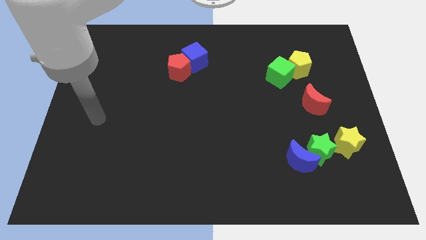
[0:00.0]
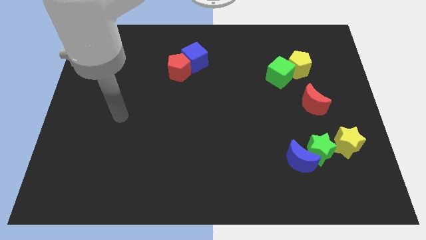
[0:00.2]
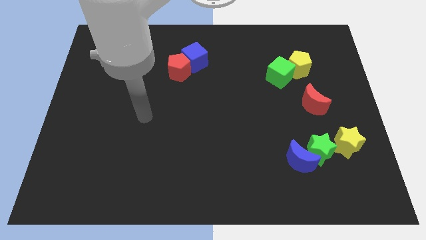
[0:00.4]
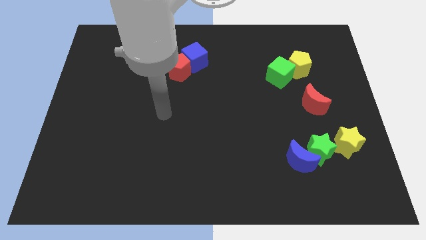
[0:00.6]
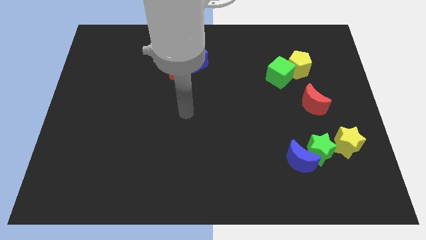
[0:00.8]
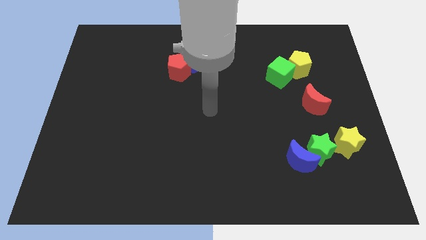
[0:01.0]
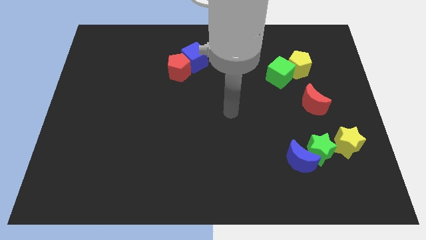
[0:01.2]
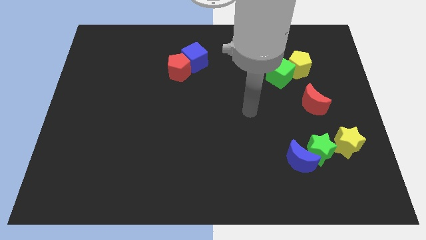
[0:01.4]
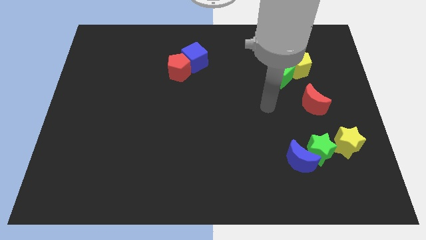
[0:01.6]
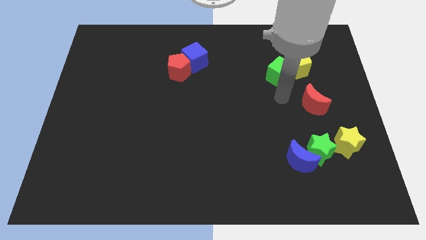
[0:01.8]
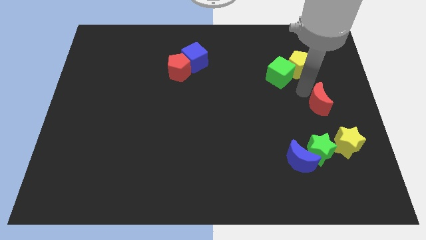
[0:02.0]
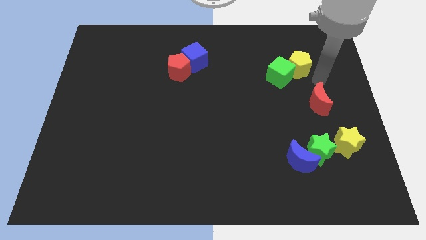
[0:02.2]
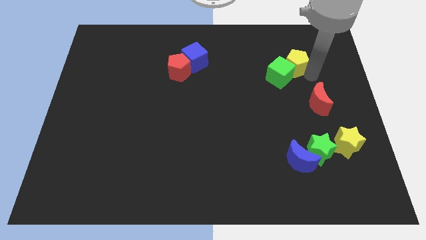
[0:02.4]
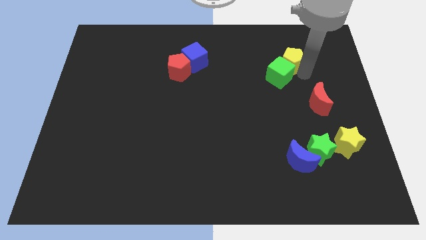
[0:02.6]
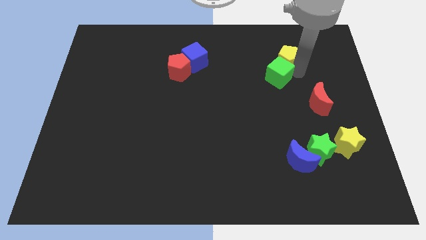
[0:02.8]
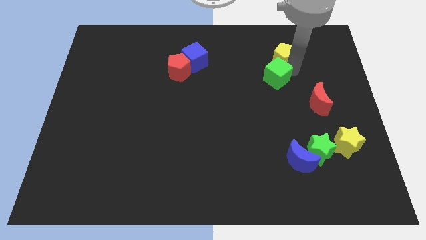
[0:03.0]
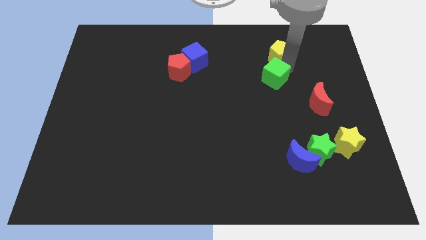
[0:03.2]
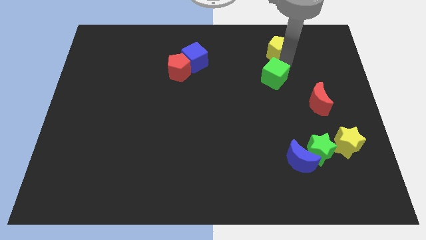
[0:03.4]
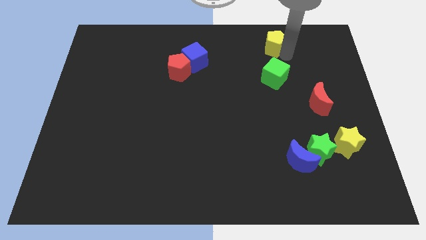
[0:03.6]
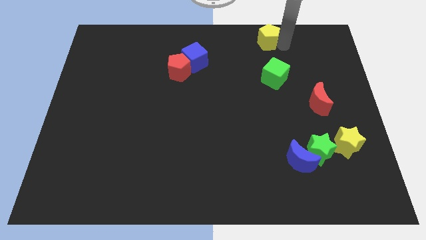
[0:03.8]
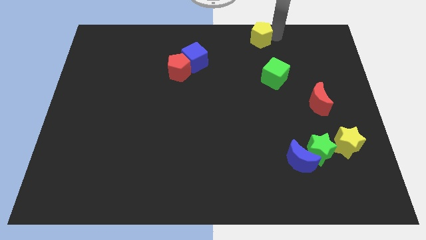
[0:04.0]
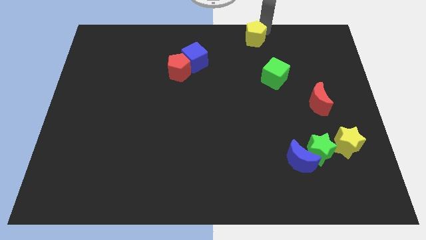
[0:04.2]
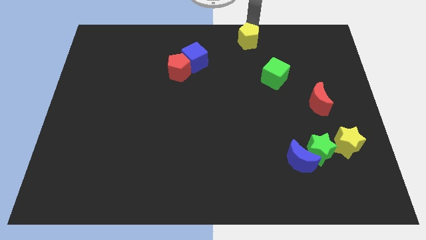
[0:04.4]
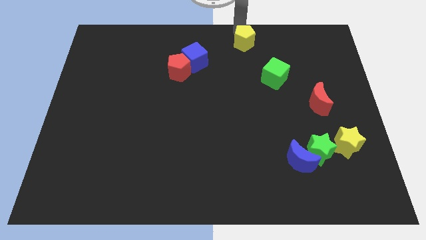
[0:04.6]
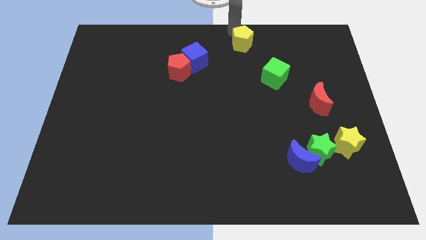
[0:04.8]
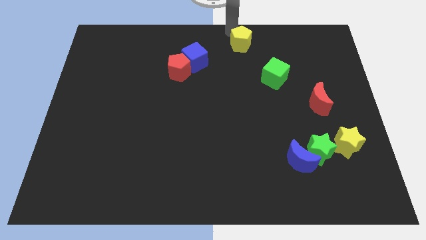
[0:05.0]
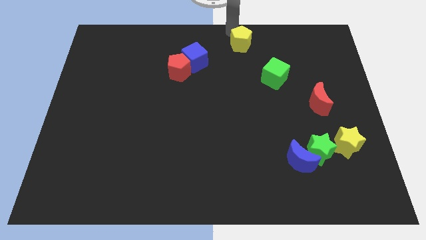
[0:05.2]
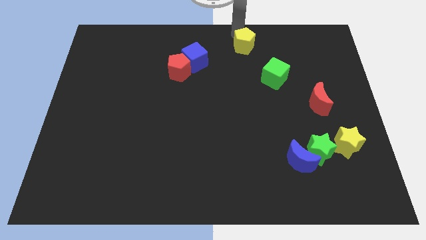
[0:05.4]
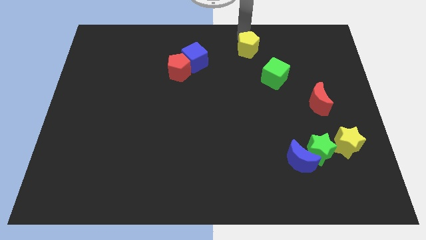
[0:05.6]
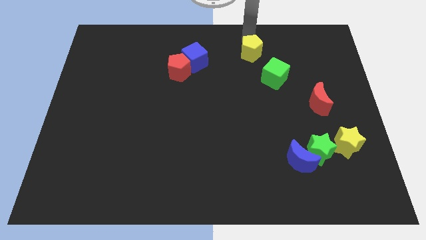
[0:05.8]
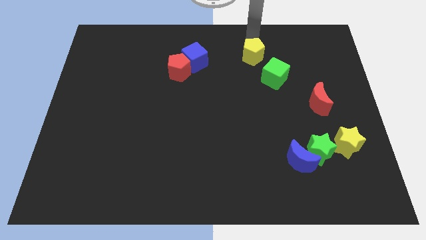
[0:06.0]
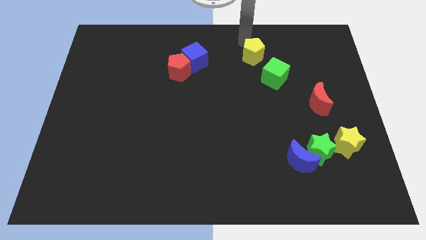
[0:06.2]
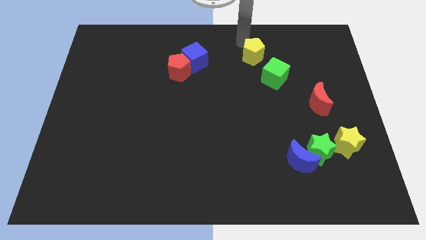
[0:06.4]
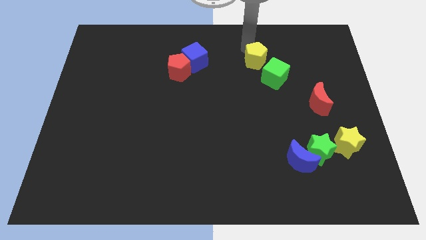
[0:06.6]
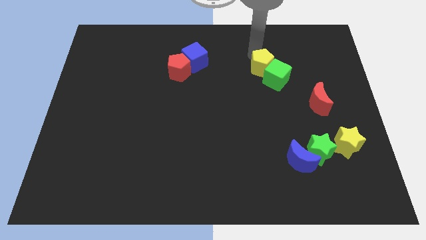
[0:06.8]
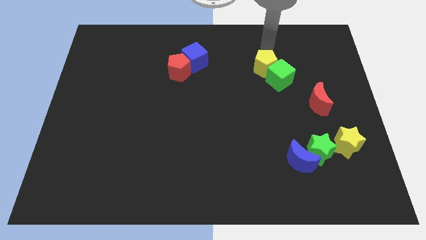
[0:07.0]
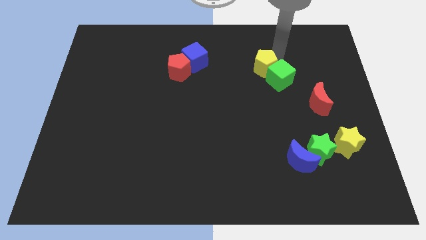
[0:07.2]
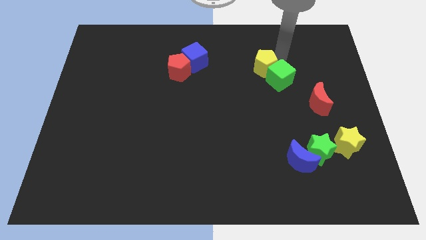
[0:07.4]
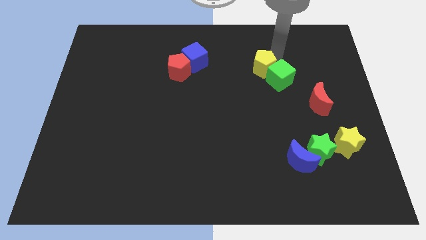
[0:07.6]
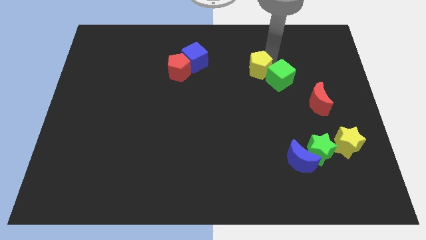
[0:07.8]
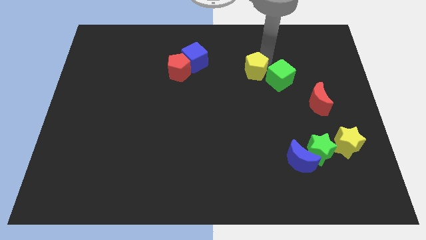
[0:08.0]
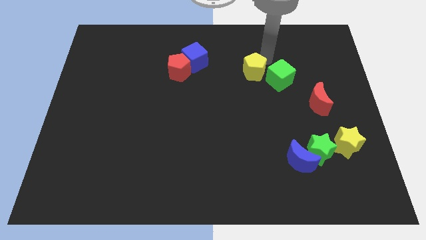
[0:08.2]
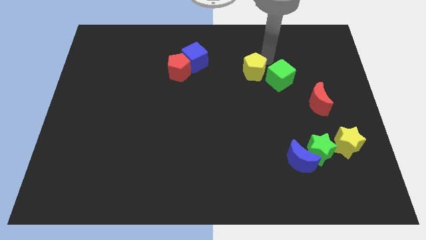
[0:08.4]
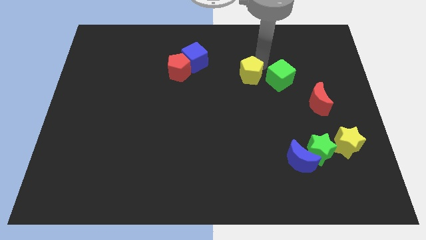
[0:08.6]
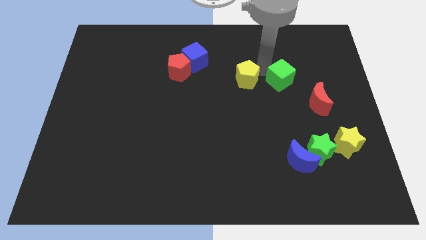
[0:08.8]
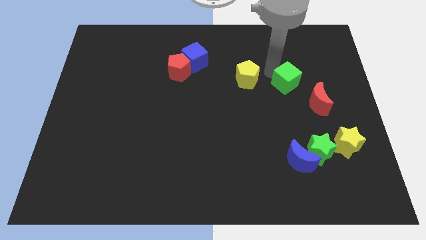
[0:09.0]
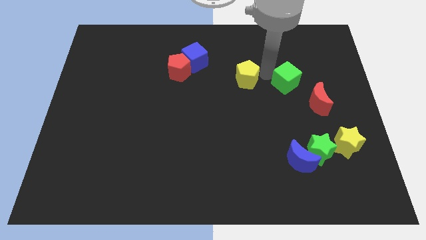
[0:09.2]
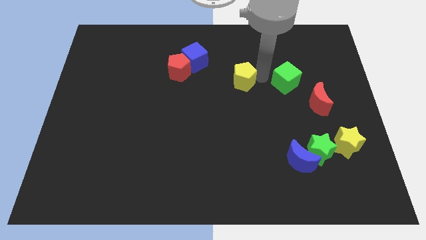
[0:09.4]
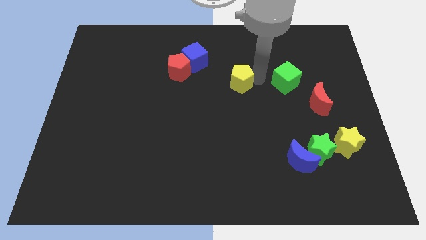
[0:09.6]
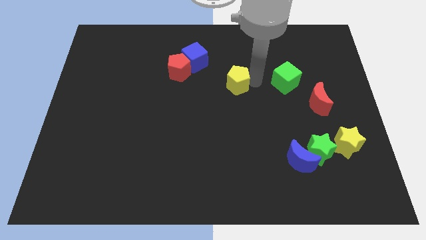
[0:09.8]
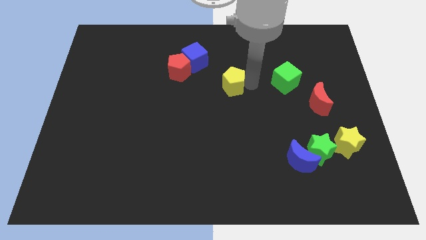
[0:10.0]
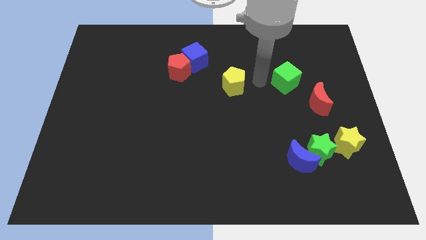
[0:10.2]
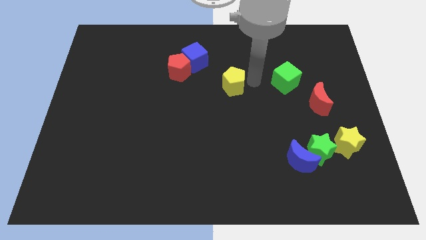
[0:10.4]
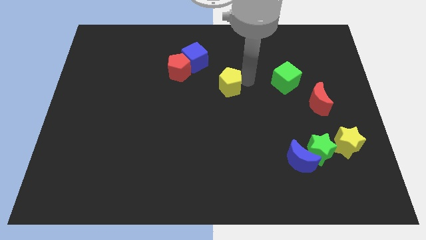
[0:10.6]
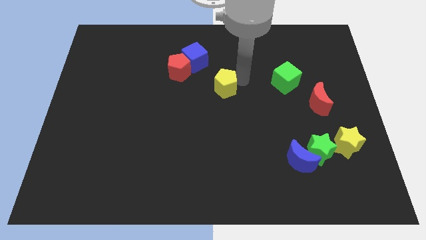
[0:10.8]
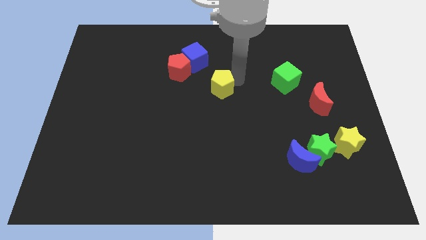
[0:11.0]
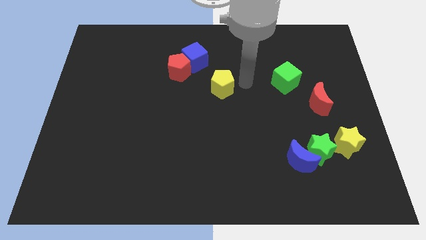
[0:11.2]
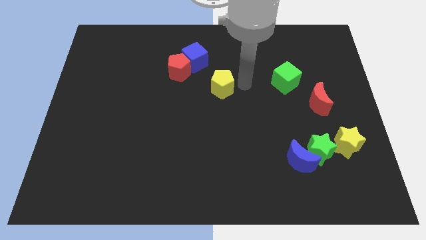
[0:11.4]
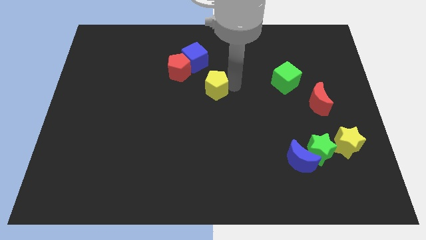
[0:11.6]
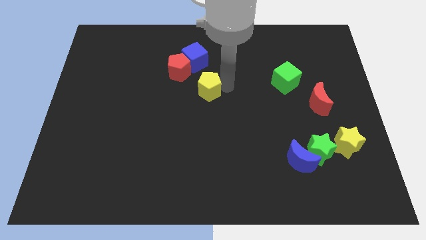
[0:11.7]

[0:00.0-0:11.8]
put the yellow pentagon to the bottom side of the blue cube

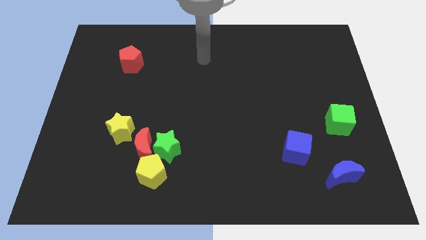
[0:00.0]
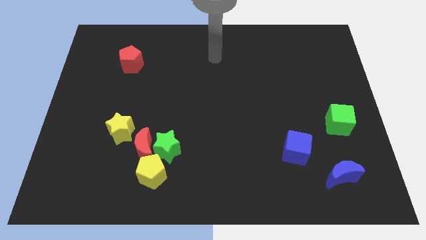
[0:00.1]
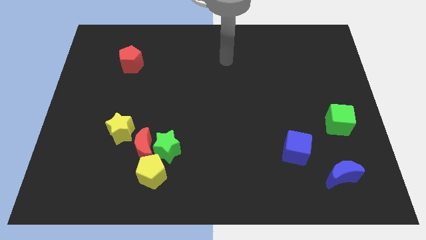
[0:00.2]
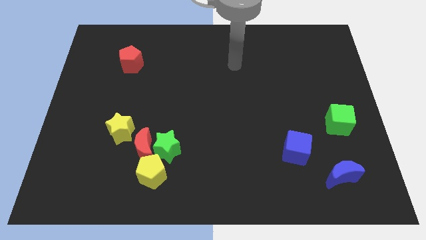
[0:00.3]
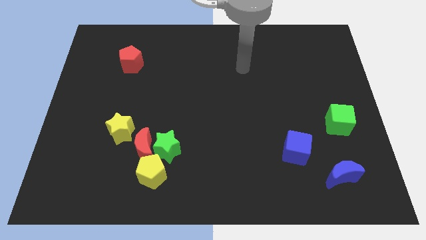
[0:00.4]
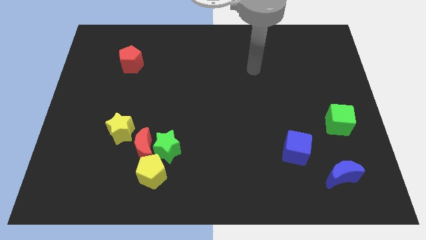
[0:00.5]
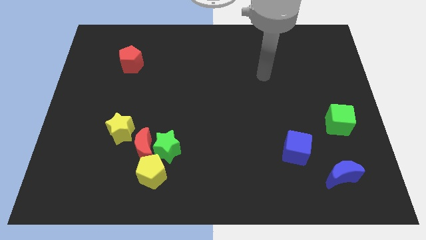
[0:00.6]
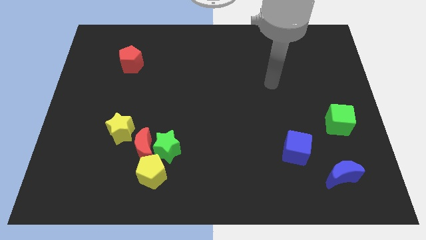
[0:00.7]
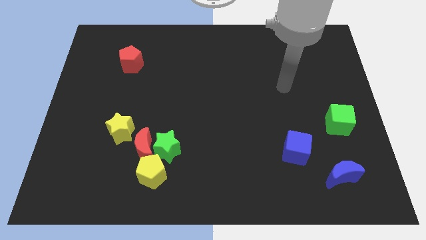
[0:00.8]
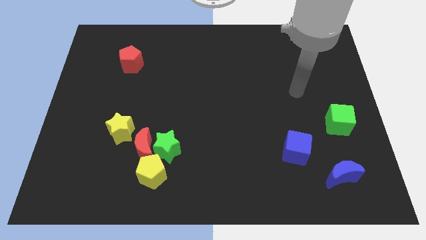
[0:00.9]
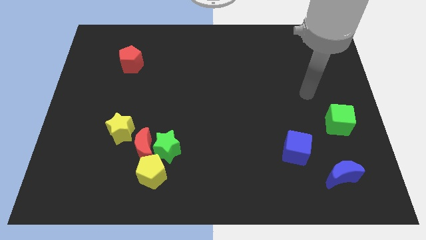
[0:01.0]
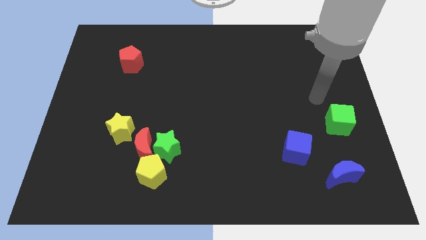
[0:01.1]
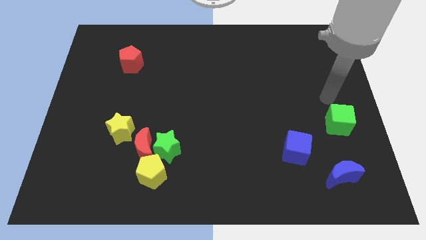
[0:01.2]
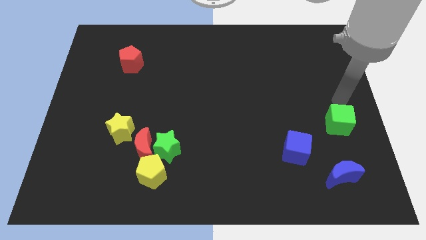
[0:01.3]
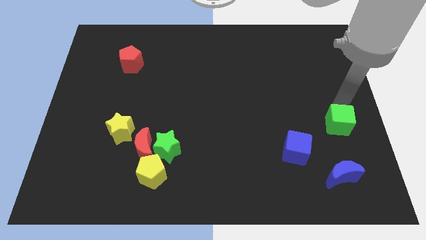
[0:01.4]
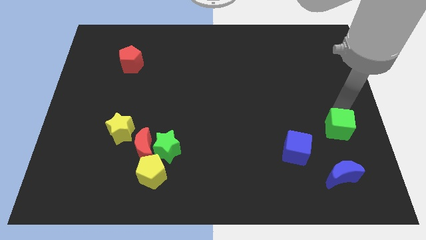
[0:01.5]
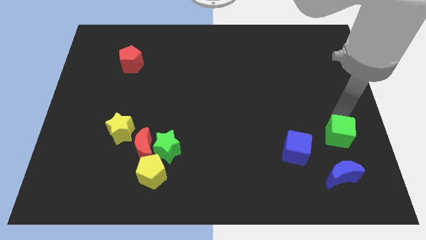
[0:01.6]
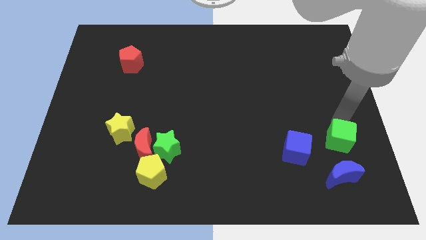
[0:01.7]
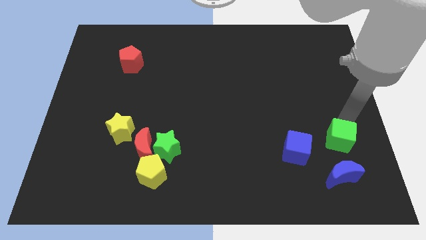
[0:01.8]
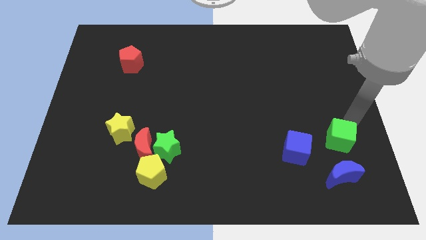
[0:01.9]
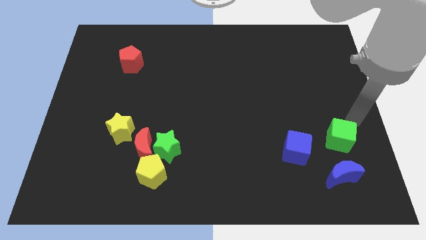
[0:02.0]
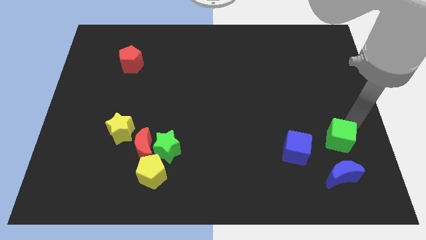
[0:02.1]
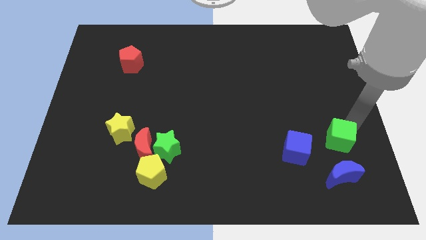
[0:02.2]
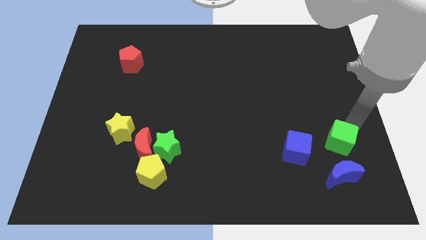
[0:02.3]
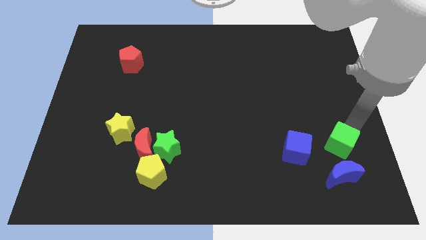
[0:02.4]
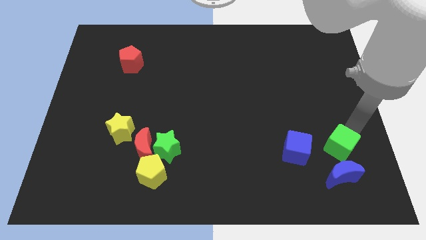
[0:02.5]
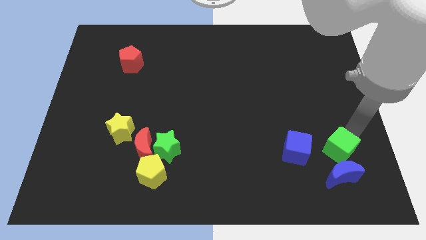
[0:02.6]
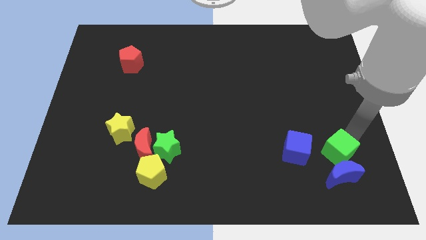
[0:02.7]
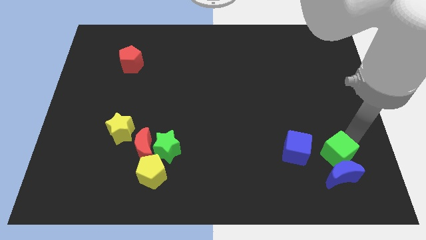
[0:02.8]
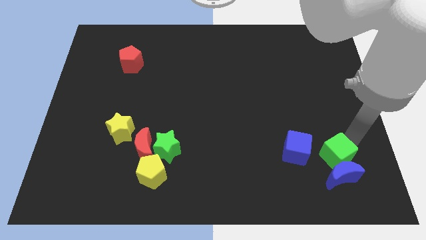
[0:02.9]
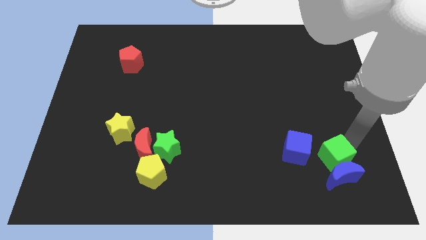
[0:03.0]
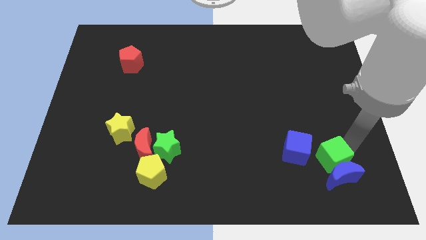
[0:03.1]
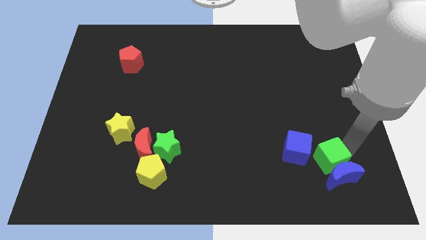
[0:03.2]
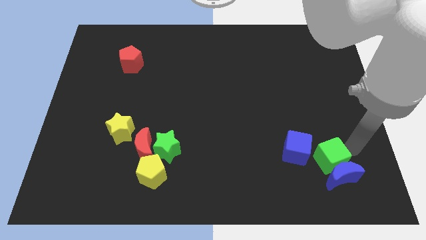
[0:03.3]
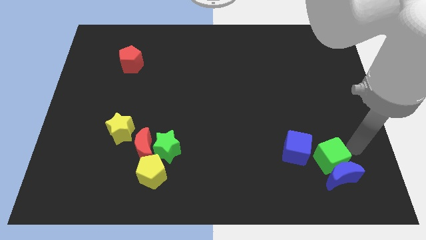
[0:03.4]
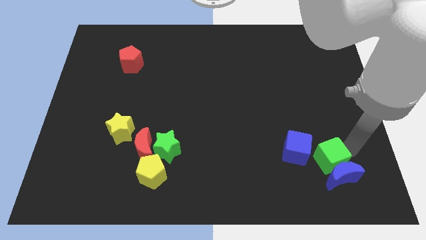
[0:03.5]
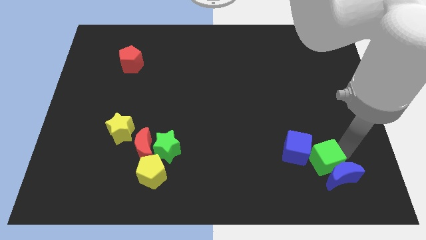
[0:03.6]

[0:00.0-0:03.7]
put the green cube left of the blue moon
